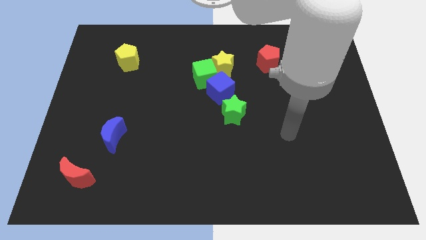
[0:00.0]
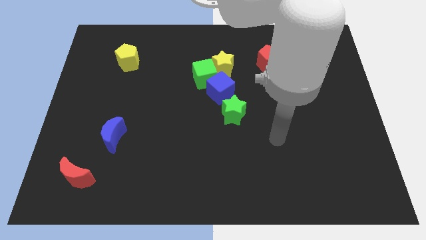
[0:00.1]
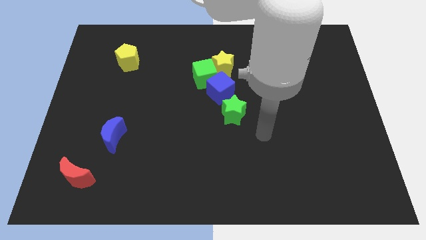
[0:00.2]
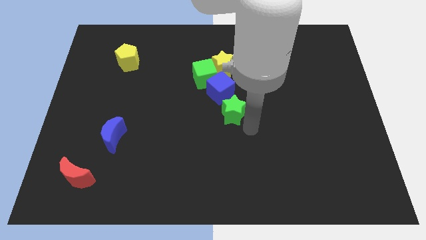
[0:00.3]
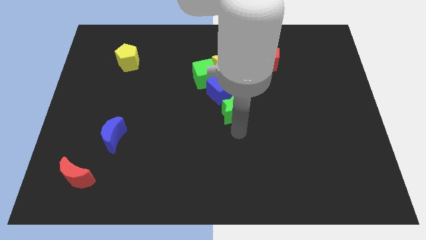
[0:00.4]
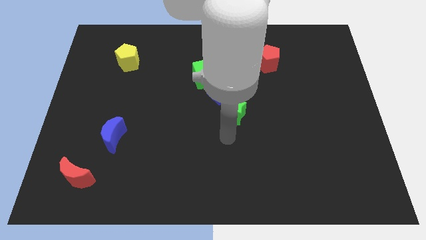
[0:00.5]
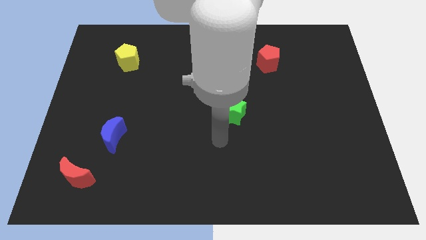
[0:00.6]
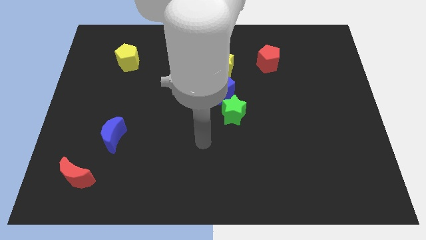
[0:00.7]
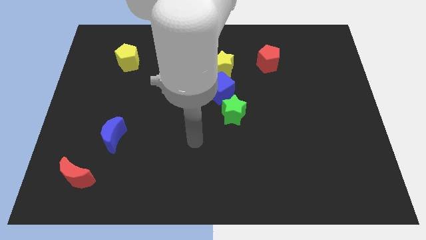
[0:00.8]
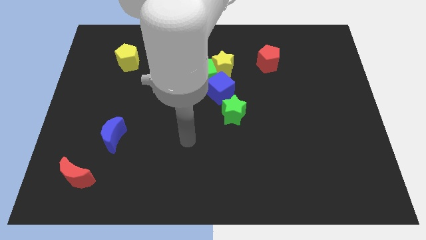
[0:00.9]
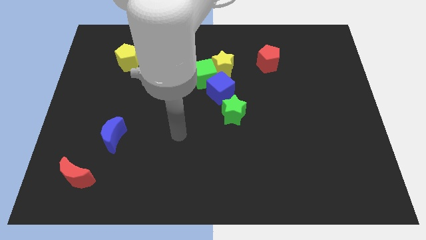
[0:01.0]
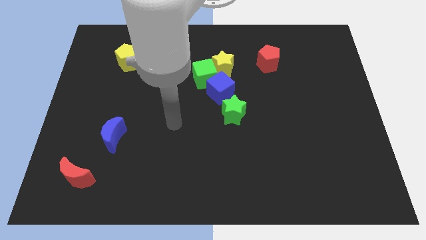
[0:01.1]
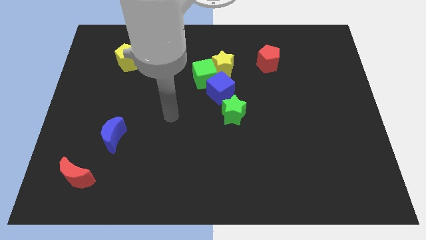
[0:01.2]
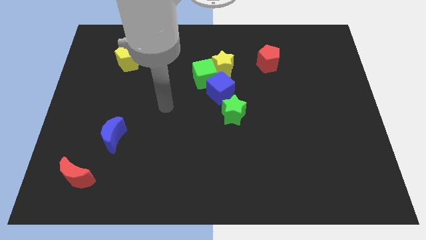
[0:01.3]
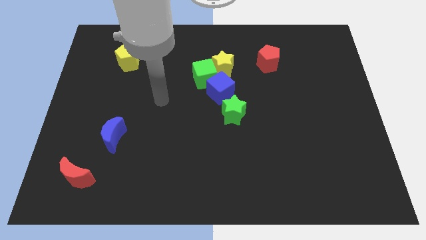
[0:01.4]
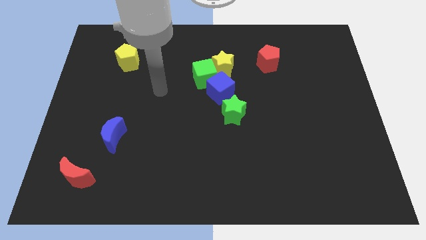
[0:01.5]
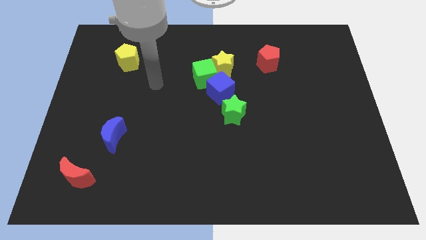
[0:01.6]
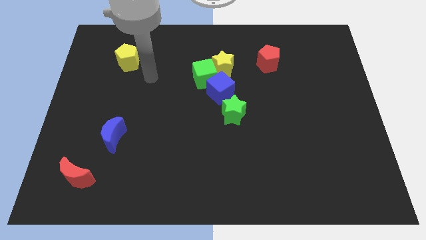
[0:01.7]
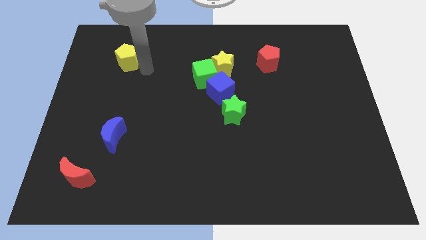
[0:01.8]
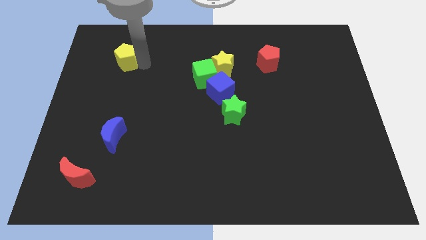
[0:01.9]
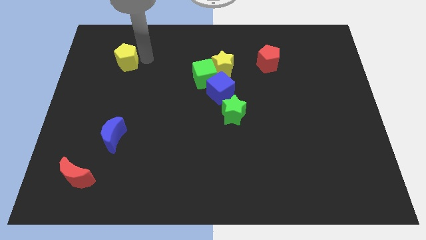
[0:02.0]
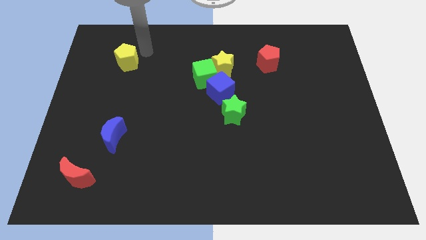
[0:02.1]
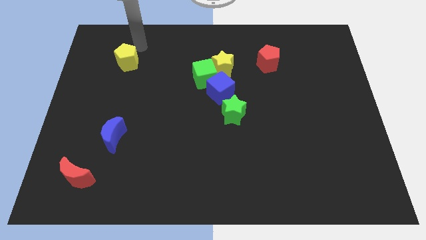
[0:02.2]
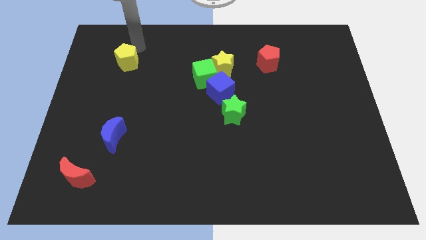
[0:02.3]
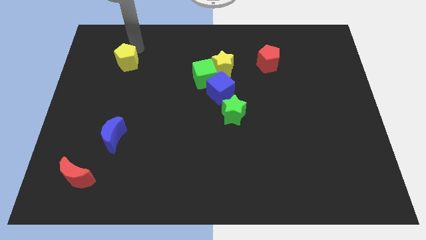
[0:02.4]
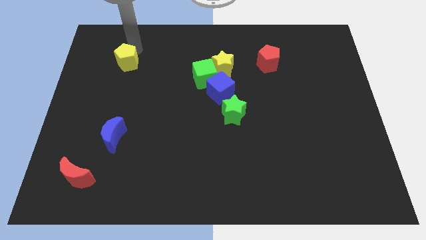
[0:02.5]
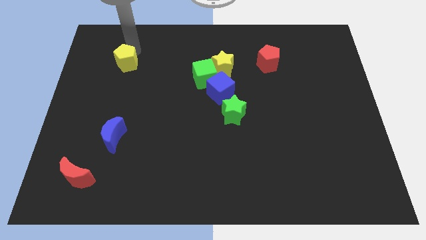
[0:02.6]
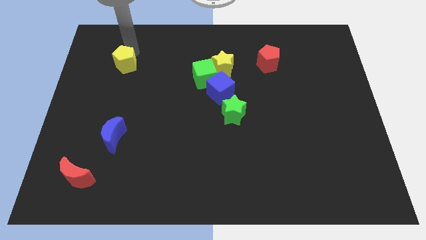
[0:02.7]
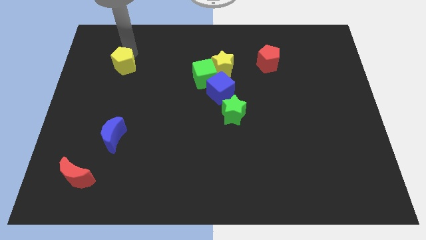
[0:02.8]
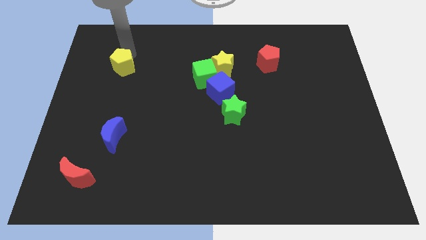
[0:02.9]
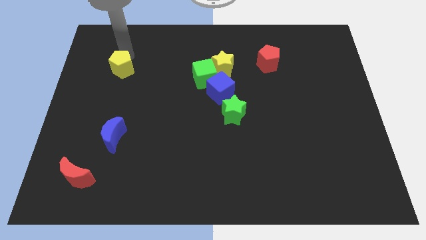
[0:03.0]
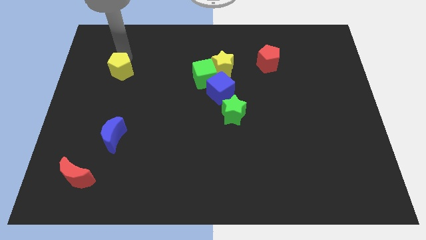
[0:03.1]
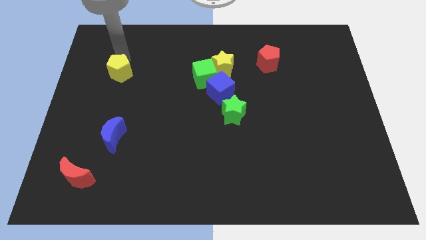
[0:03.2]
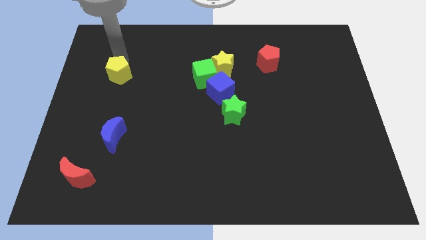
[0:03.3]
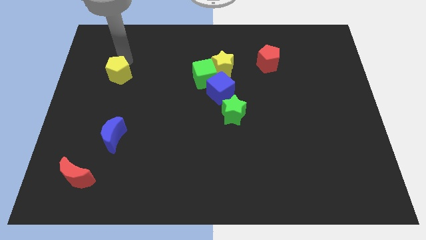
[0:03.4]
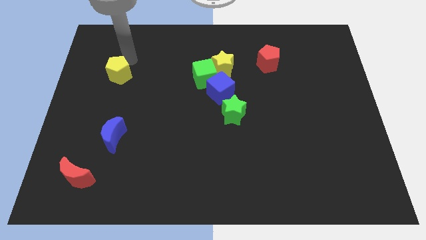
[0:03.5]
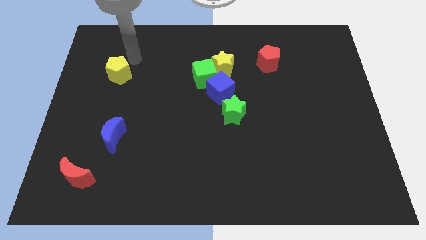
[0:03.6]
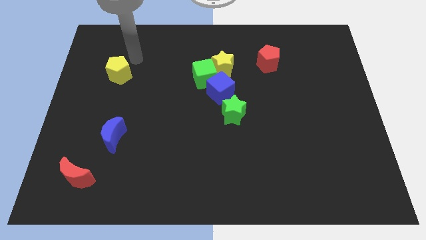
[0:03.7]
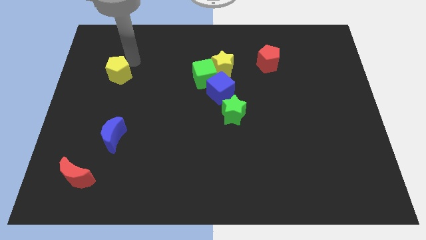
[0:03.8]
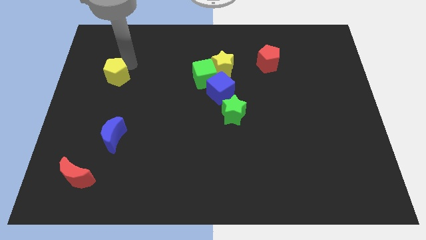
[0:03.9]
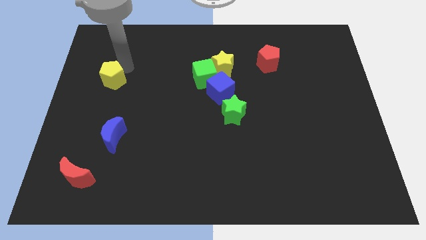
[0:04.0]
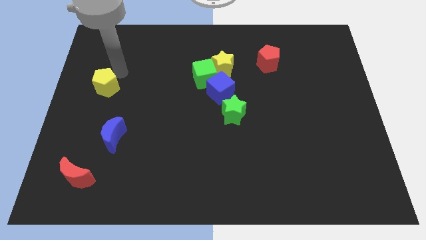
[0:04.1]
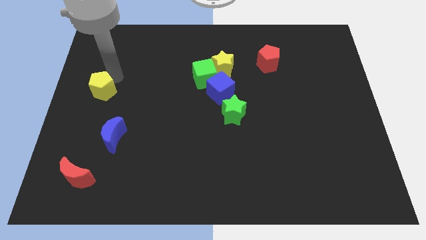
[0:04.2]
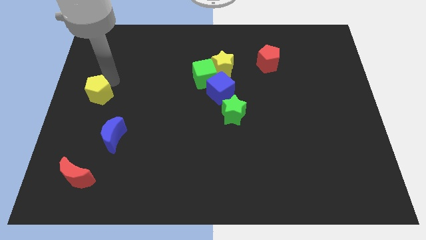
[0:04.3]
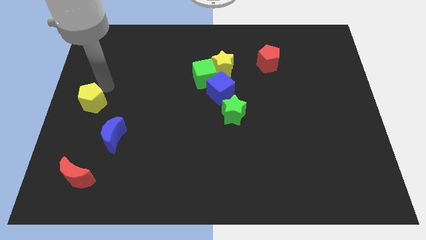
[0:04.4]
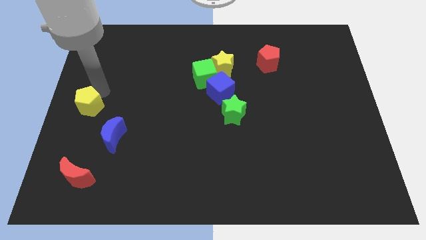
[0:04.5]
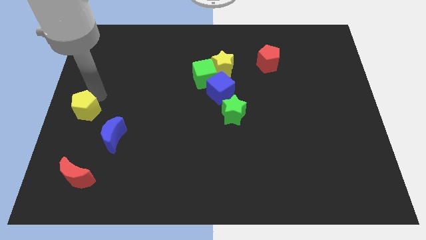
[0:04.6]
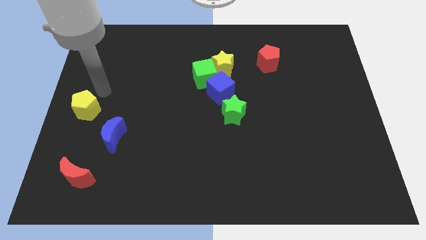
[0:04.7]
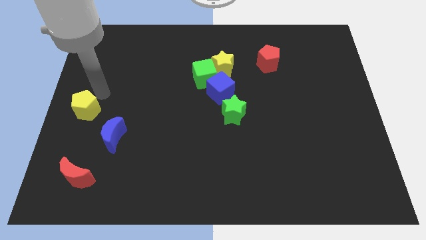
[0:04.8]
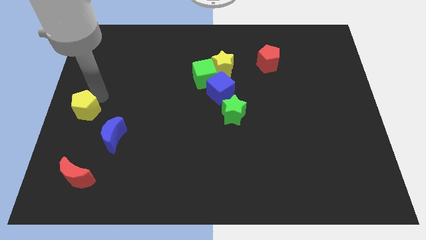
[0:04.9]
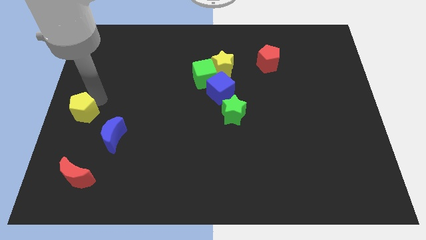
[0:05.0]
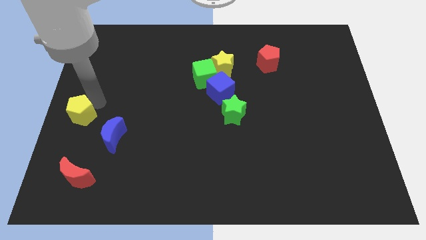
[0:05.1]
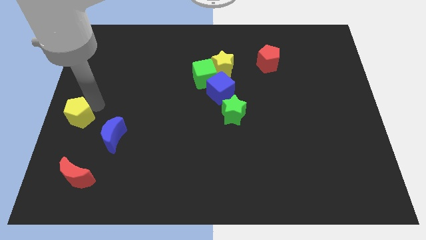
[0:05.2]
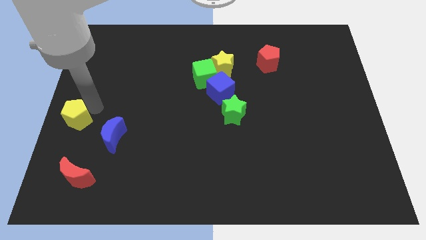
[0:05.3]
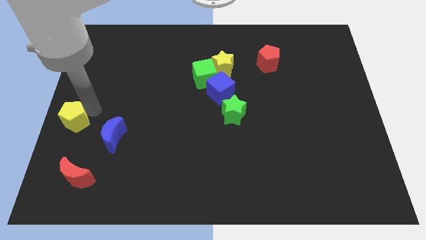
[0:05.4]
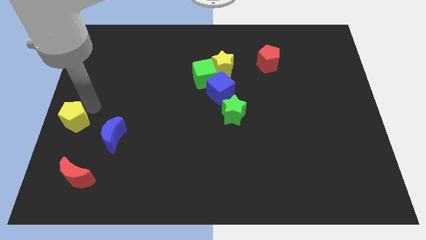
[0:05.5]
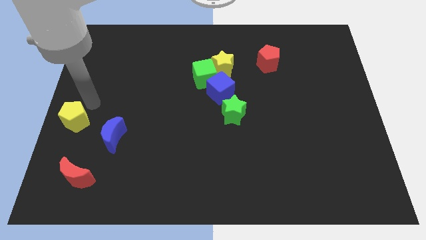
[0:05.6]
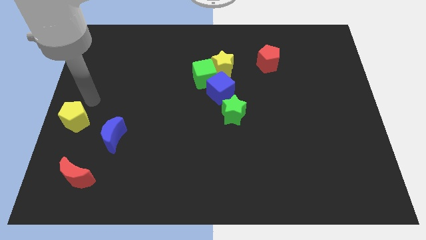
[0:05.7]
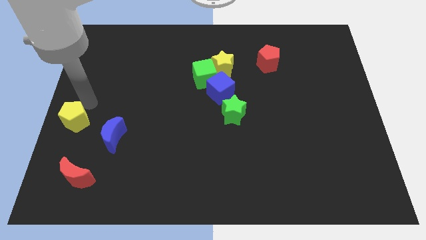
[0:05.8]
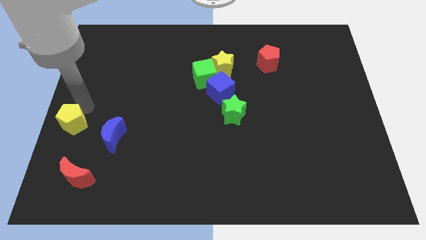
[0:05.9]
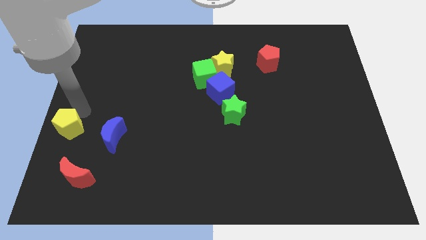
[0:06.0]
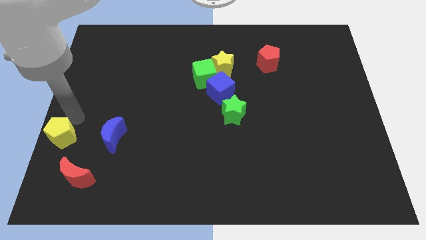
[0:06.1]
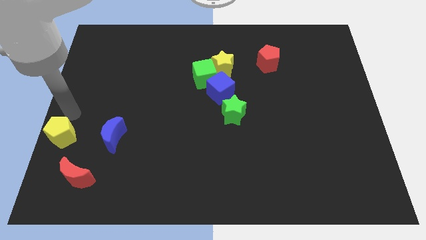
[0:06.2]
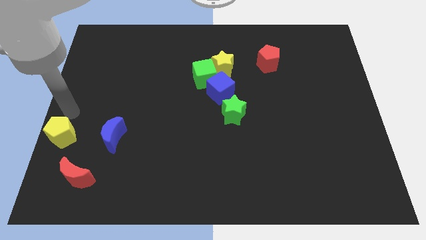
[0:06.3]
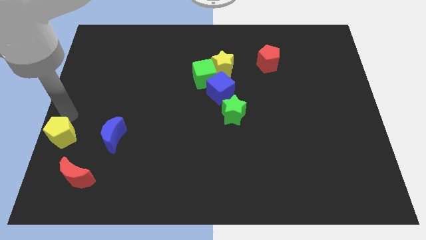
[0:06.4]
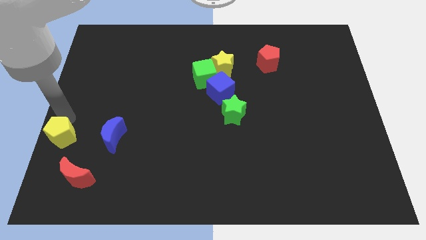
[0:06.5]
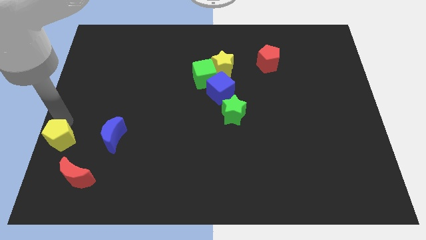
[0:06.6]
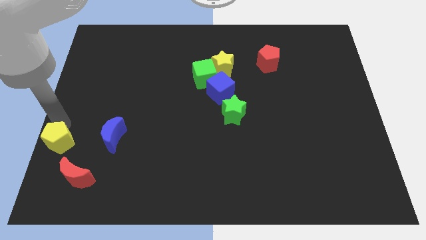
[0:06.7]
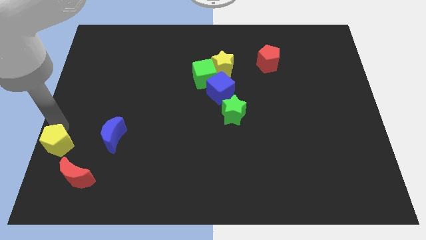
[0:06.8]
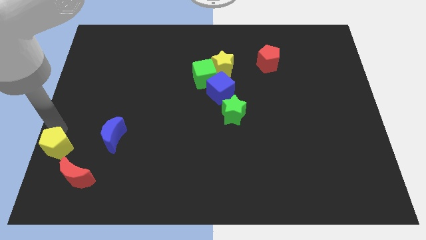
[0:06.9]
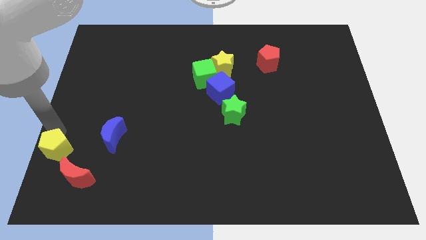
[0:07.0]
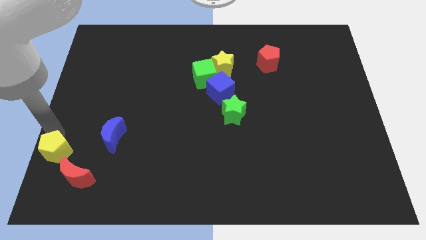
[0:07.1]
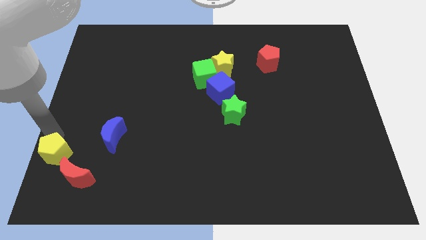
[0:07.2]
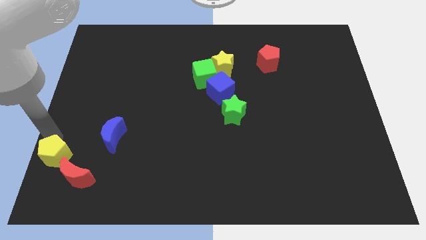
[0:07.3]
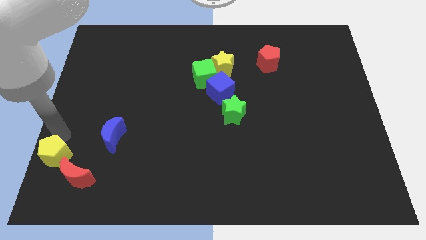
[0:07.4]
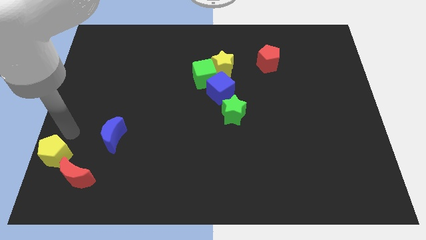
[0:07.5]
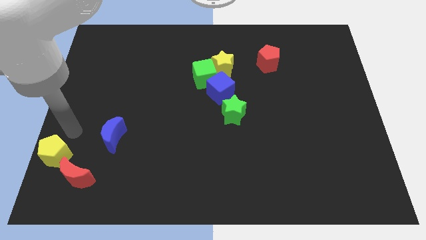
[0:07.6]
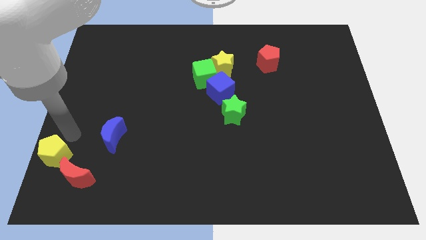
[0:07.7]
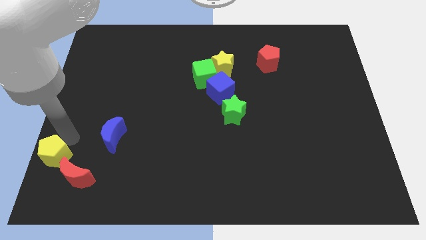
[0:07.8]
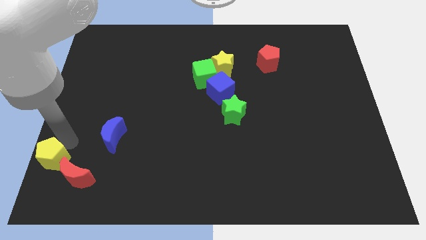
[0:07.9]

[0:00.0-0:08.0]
put the yellow pentagon to the bottom left corner
